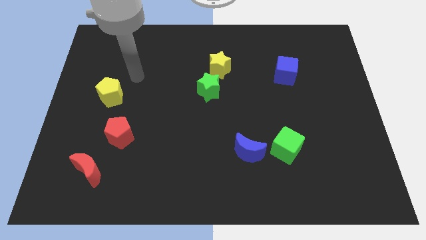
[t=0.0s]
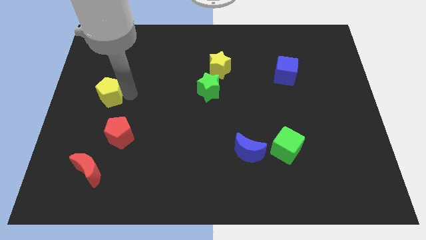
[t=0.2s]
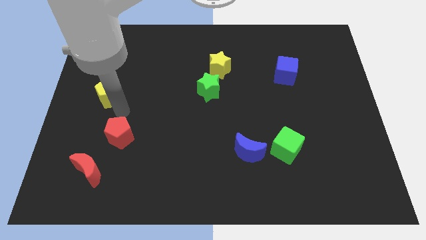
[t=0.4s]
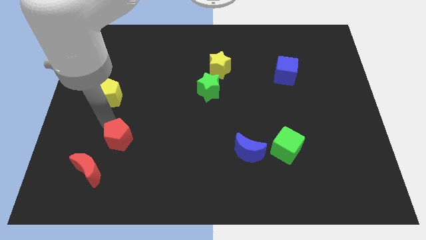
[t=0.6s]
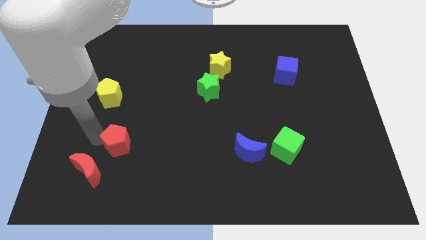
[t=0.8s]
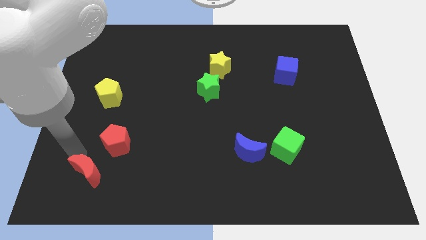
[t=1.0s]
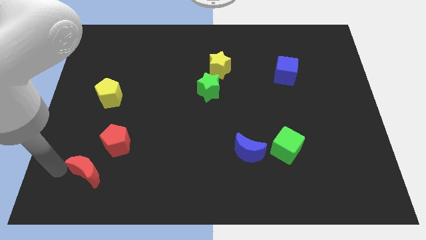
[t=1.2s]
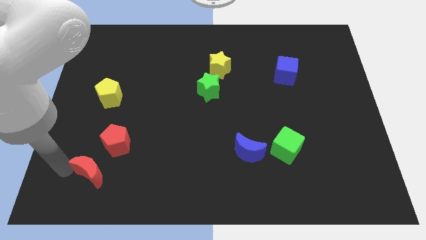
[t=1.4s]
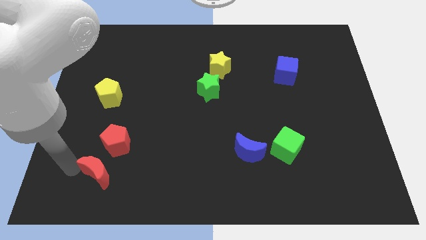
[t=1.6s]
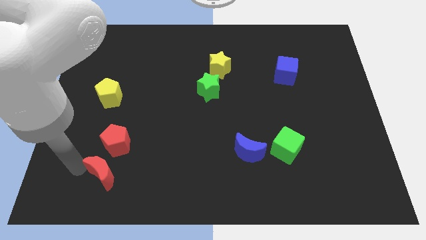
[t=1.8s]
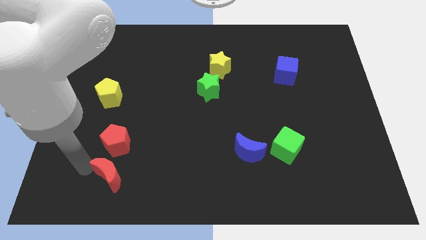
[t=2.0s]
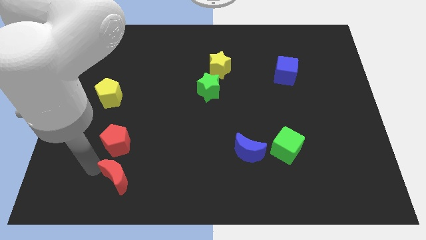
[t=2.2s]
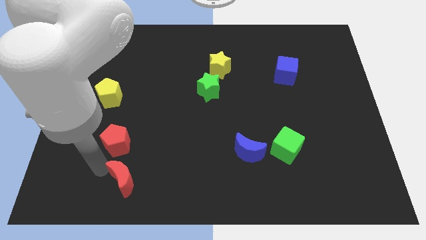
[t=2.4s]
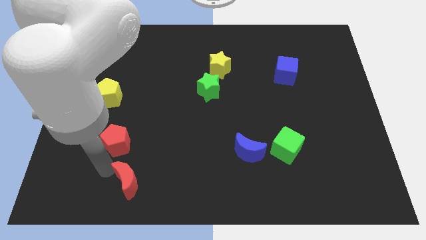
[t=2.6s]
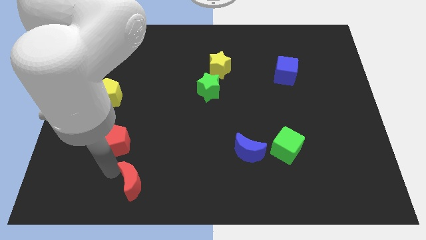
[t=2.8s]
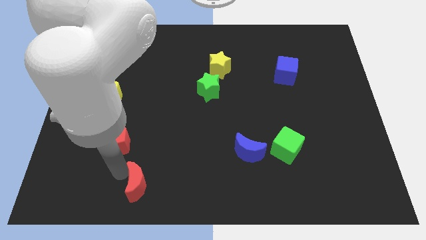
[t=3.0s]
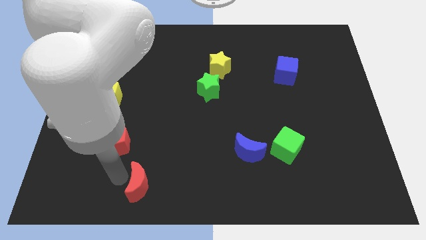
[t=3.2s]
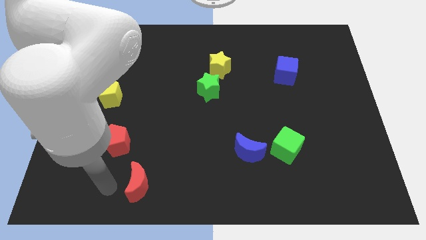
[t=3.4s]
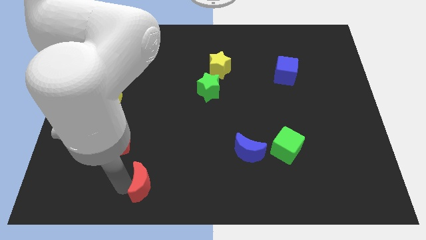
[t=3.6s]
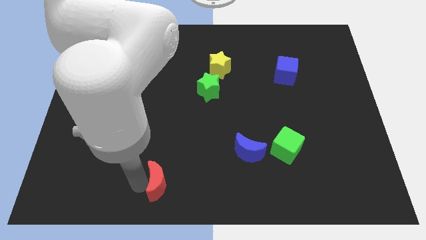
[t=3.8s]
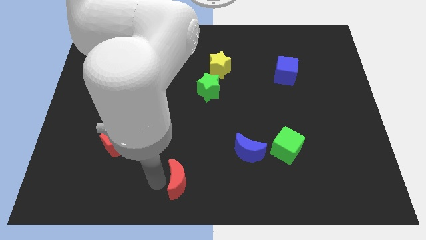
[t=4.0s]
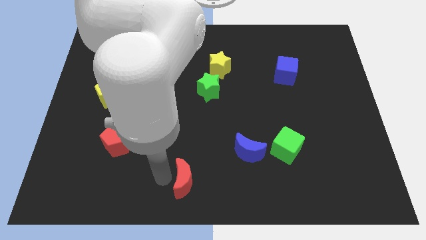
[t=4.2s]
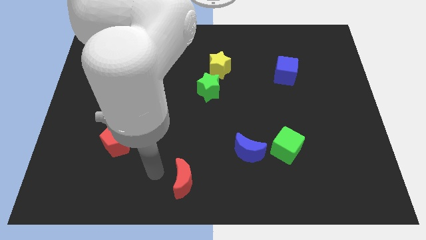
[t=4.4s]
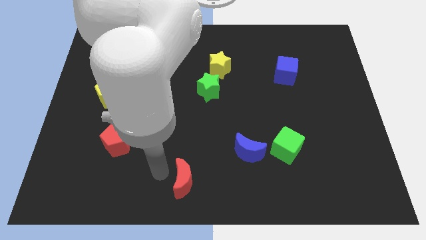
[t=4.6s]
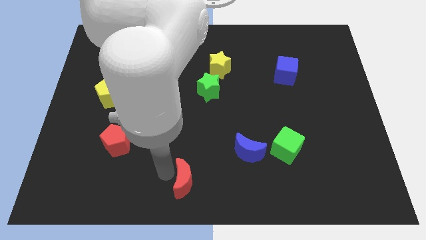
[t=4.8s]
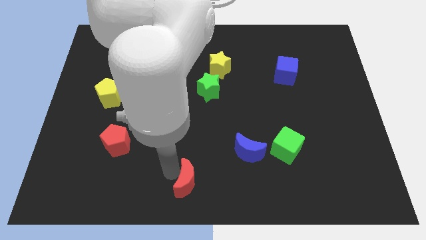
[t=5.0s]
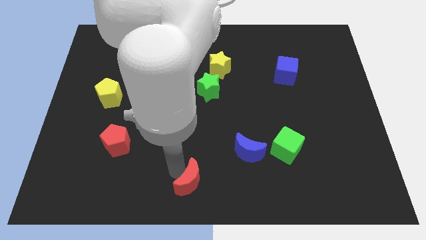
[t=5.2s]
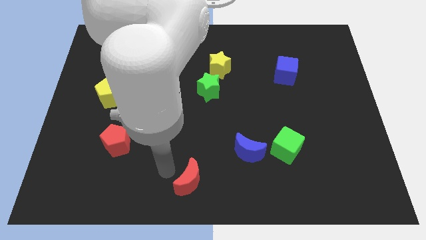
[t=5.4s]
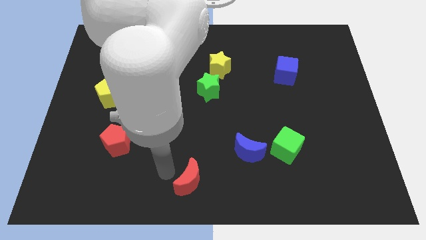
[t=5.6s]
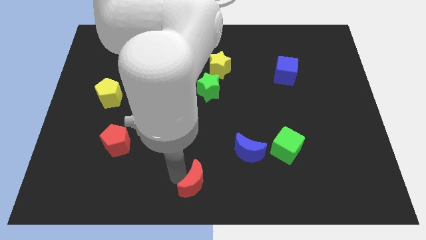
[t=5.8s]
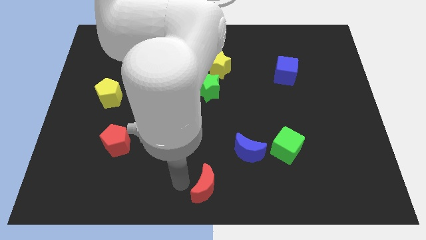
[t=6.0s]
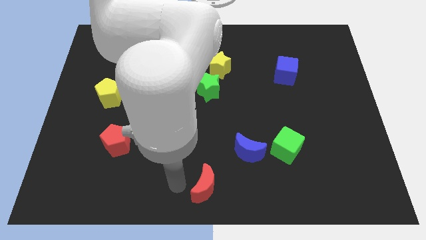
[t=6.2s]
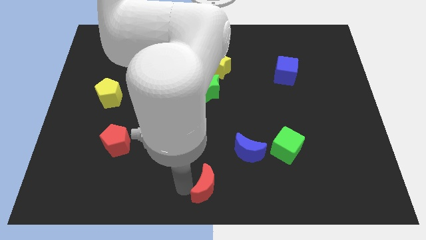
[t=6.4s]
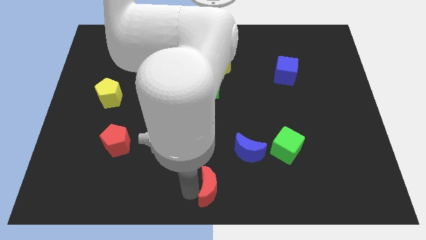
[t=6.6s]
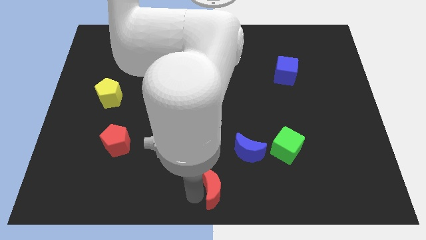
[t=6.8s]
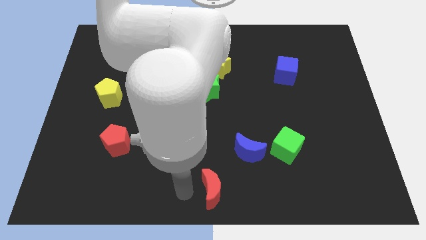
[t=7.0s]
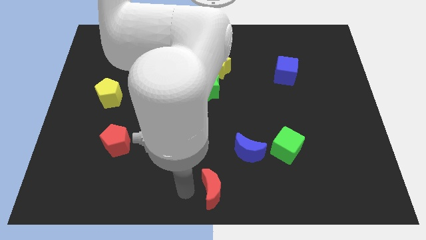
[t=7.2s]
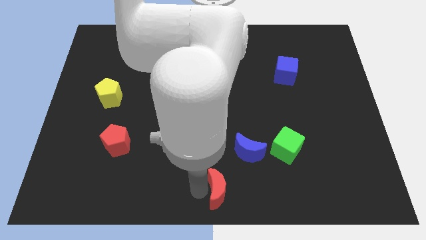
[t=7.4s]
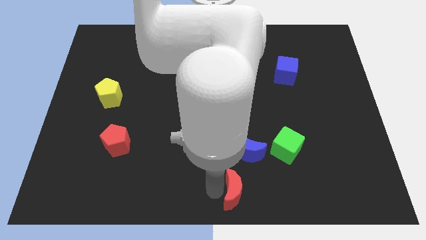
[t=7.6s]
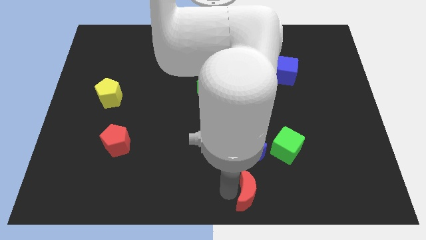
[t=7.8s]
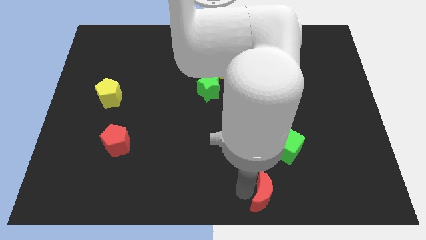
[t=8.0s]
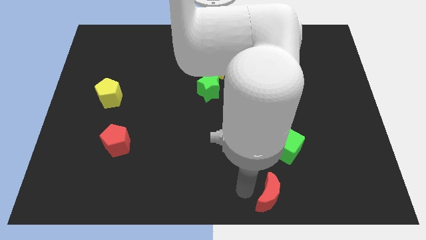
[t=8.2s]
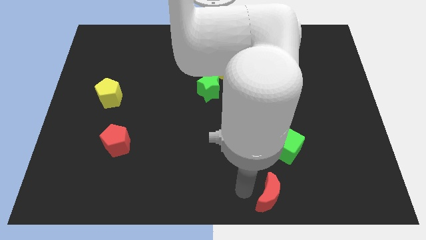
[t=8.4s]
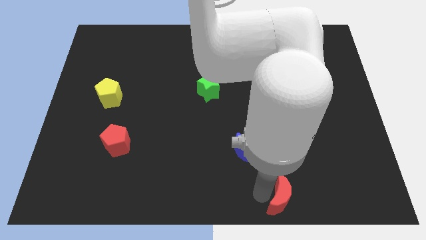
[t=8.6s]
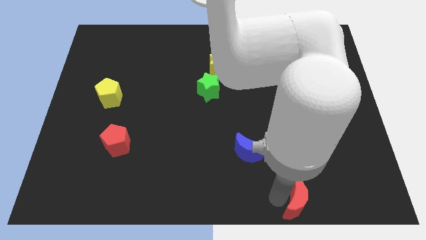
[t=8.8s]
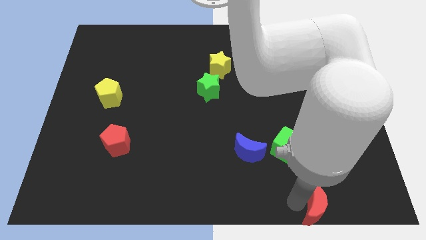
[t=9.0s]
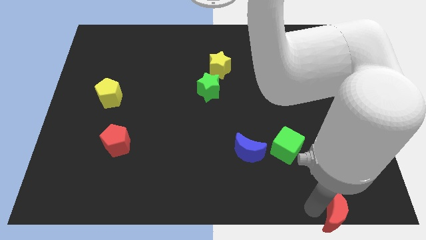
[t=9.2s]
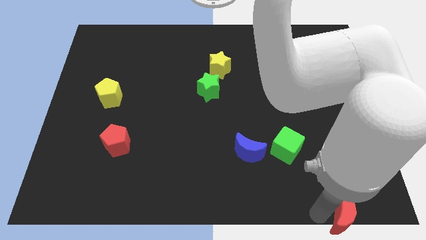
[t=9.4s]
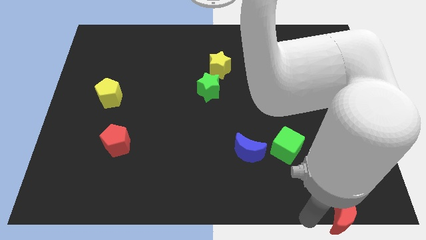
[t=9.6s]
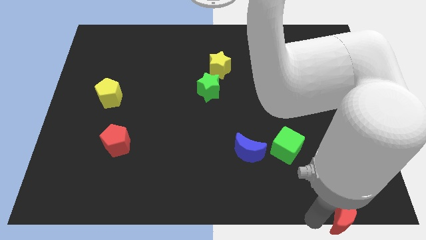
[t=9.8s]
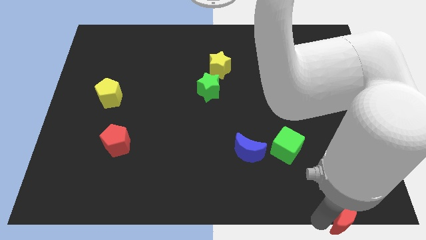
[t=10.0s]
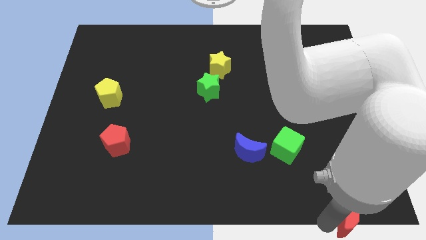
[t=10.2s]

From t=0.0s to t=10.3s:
put the red moon to the lower right corner

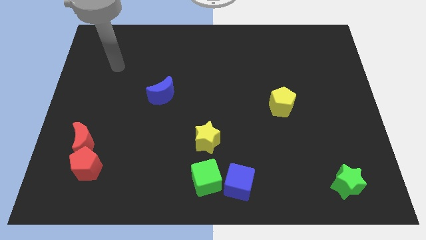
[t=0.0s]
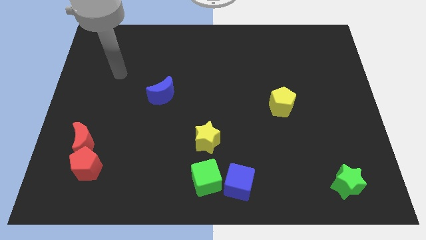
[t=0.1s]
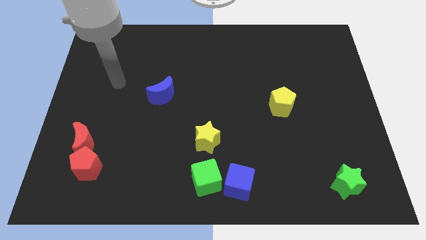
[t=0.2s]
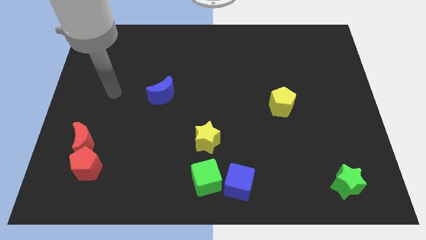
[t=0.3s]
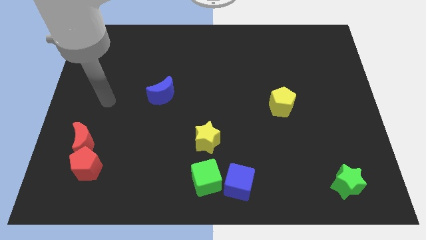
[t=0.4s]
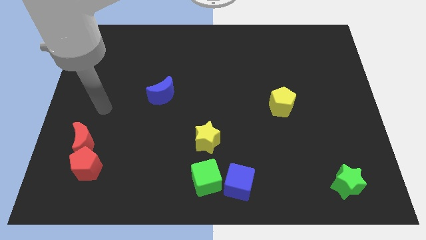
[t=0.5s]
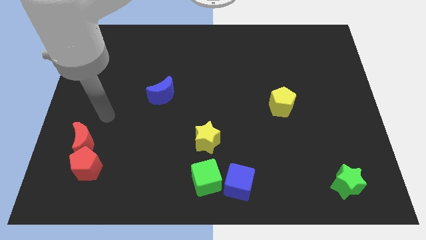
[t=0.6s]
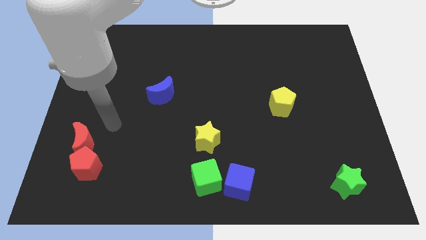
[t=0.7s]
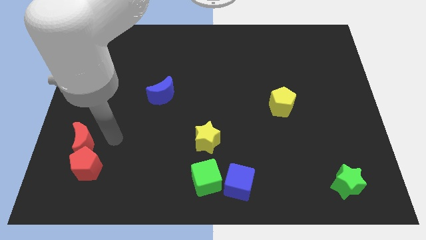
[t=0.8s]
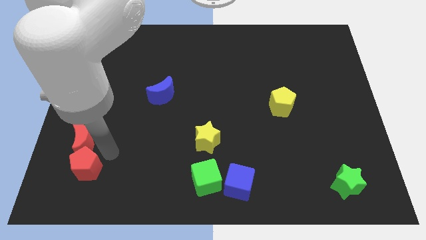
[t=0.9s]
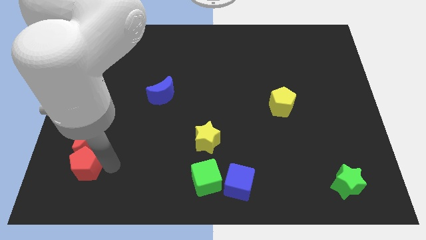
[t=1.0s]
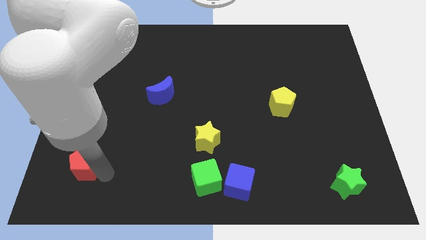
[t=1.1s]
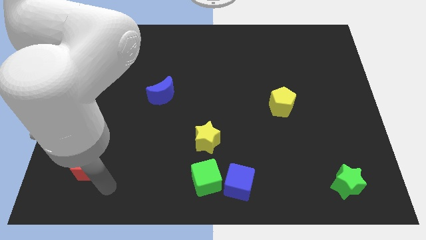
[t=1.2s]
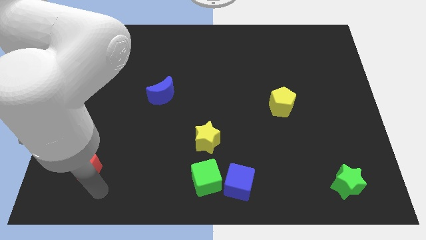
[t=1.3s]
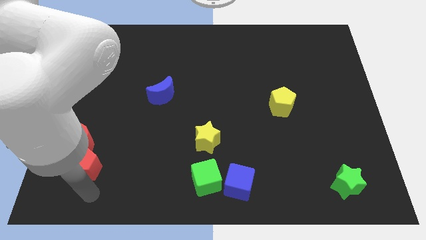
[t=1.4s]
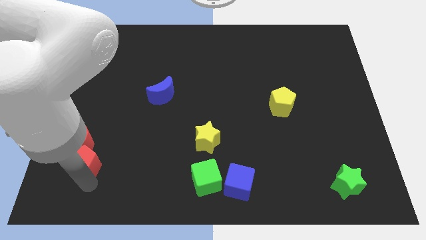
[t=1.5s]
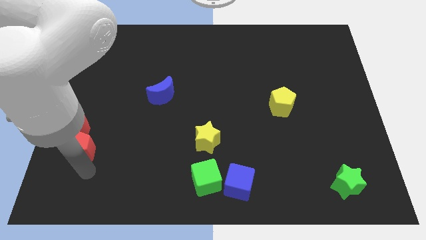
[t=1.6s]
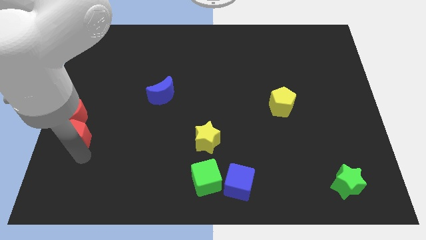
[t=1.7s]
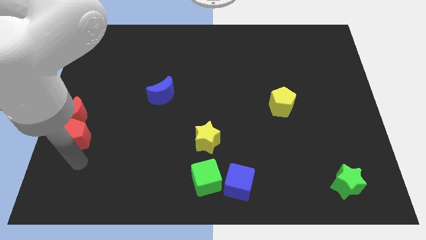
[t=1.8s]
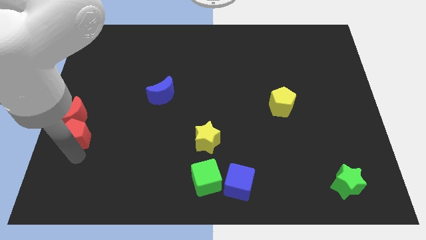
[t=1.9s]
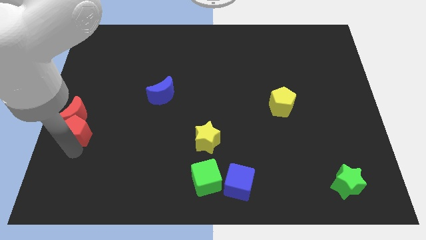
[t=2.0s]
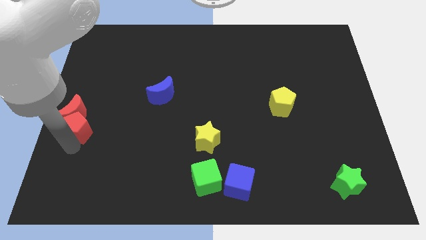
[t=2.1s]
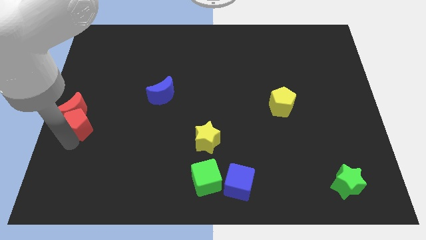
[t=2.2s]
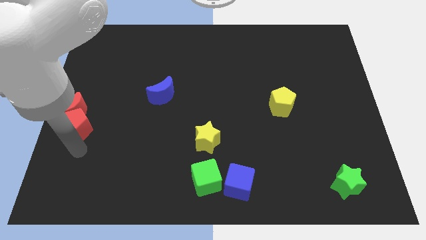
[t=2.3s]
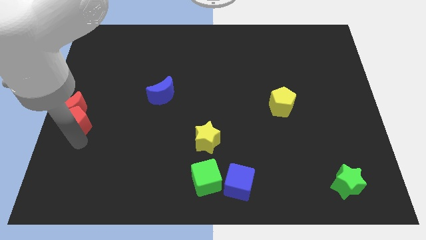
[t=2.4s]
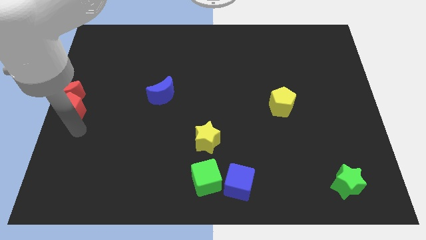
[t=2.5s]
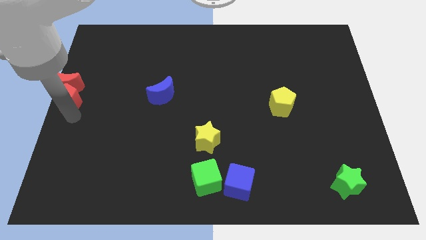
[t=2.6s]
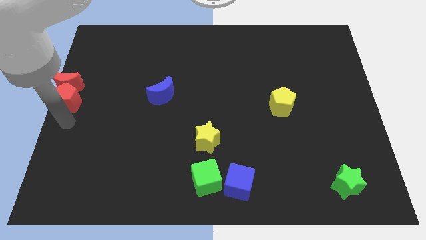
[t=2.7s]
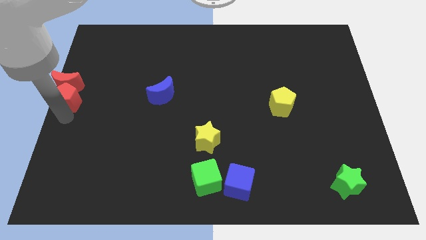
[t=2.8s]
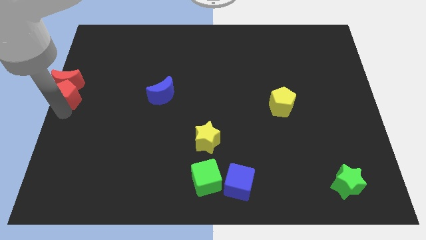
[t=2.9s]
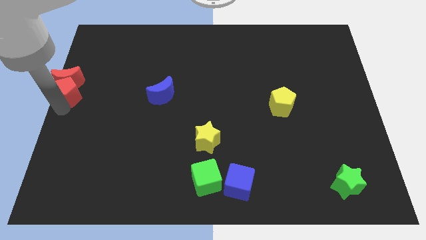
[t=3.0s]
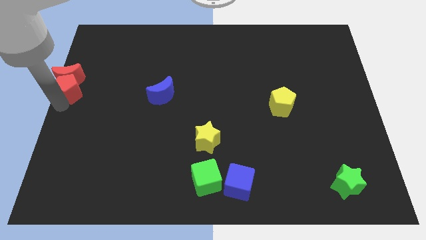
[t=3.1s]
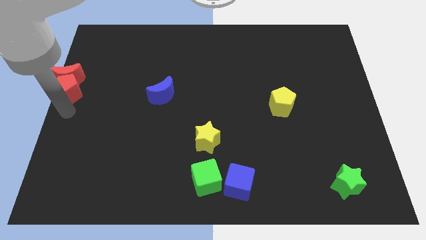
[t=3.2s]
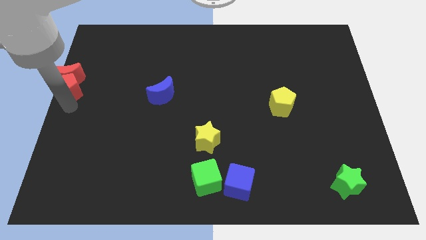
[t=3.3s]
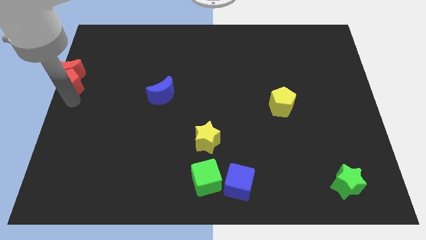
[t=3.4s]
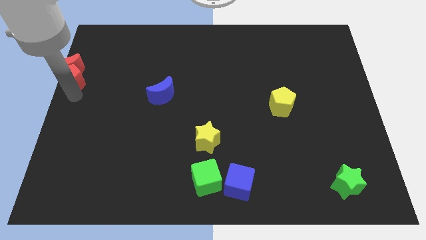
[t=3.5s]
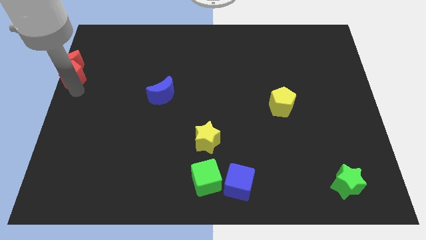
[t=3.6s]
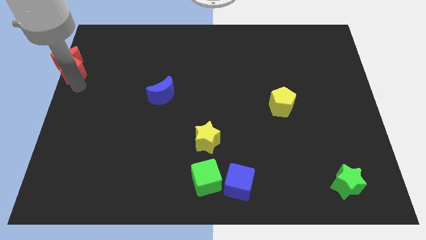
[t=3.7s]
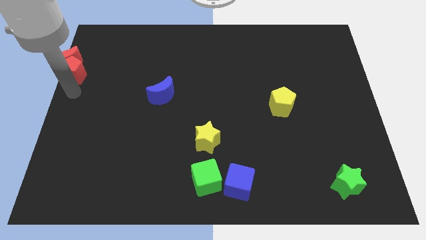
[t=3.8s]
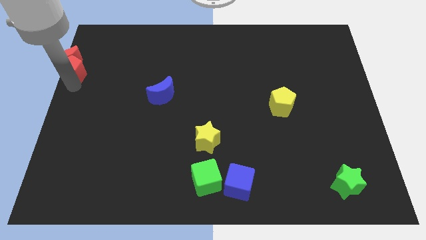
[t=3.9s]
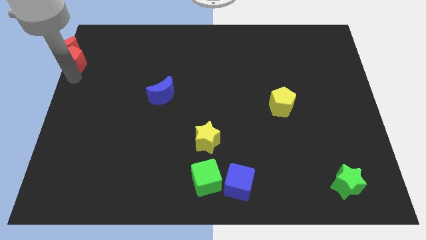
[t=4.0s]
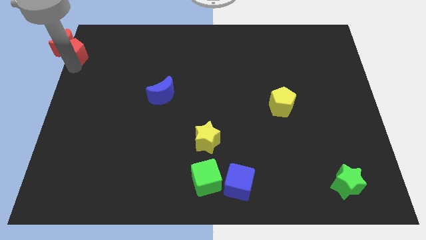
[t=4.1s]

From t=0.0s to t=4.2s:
slide the red pentagon to the top left corner
